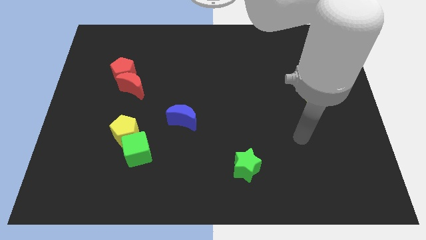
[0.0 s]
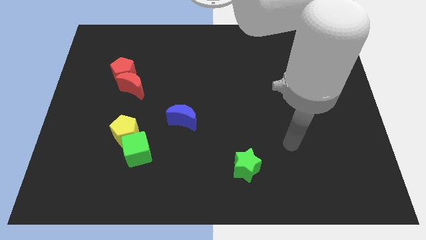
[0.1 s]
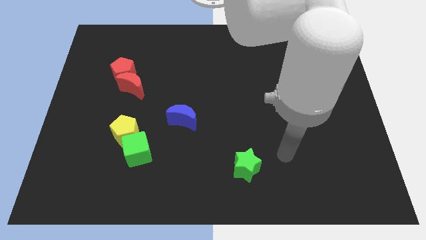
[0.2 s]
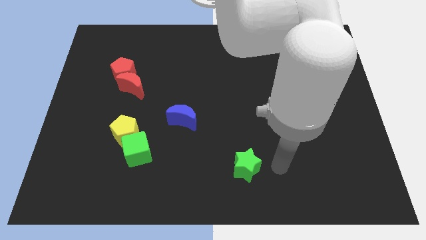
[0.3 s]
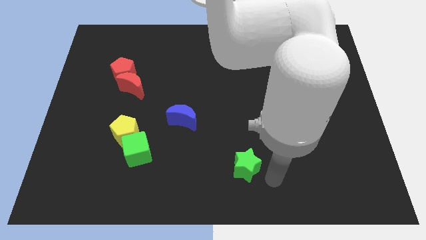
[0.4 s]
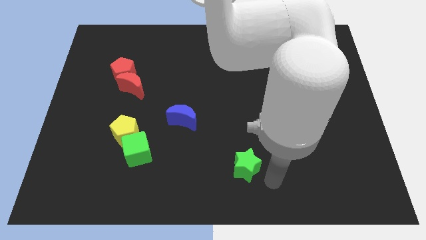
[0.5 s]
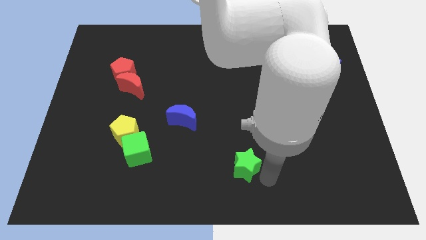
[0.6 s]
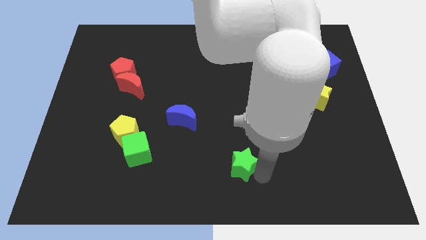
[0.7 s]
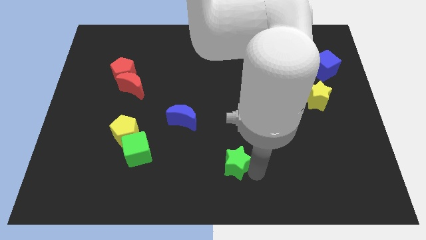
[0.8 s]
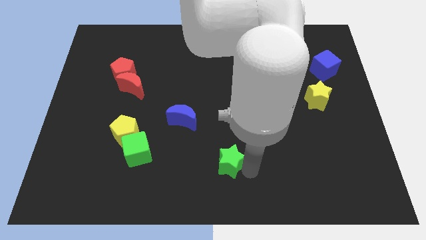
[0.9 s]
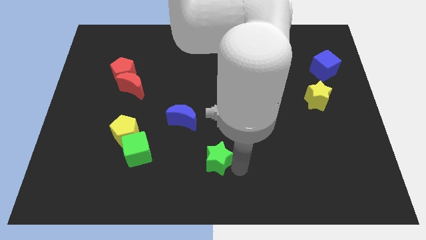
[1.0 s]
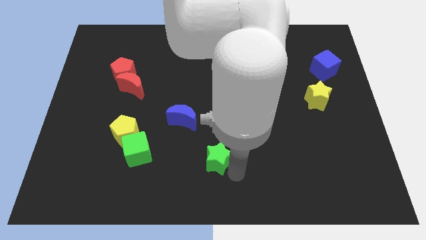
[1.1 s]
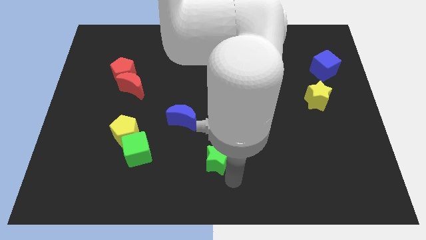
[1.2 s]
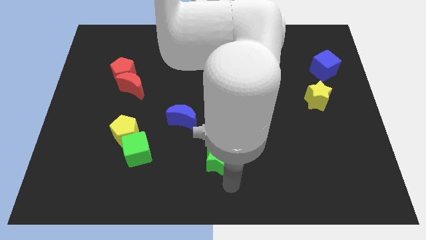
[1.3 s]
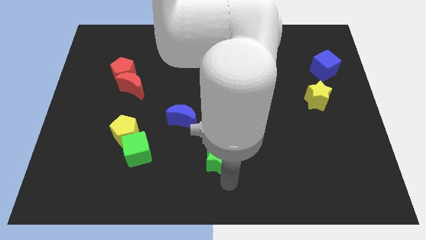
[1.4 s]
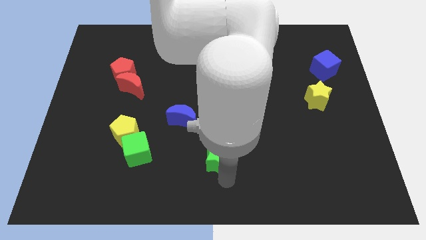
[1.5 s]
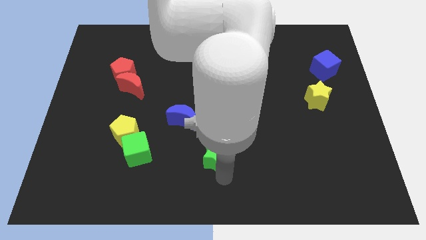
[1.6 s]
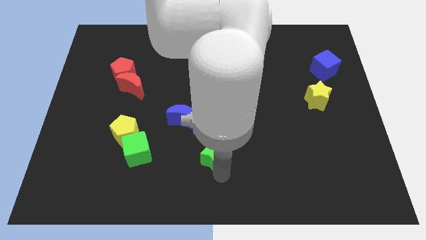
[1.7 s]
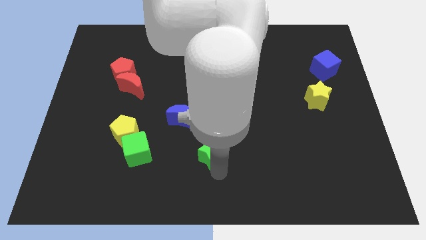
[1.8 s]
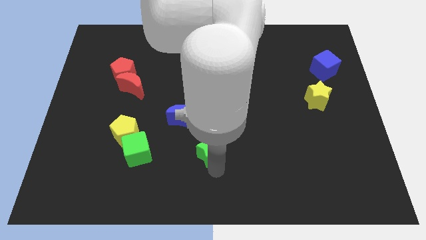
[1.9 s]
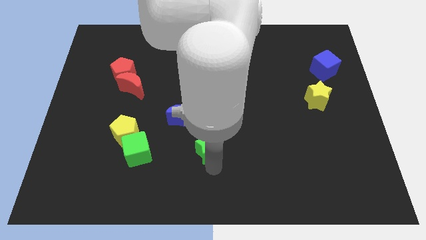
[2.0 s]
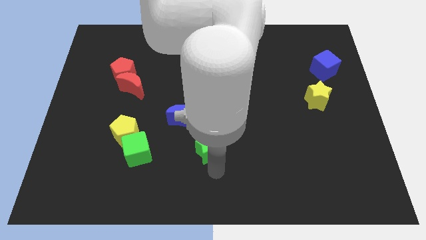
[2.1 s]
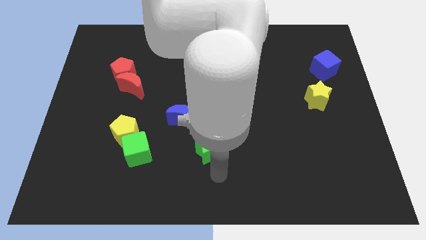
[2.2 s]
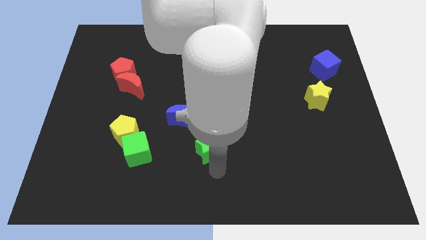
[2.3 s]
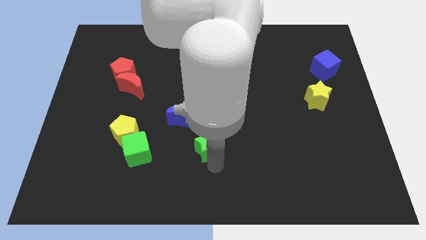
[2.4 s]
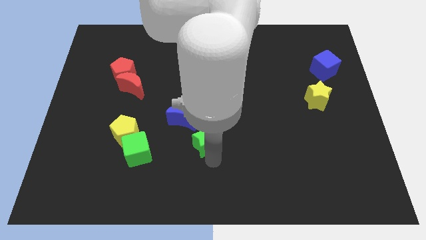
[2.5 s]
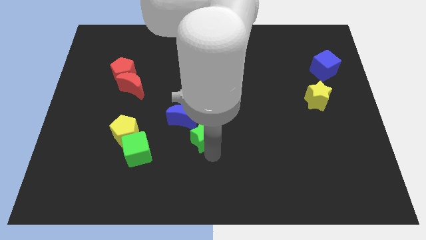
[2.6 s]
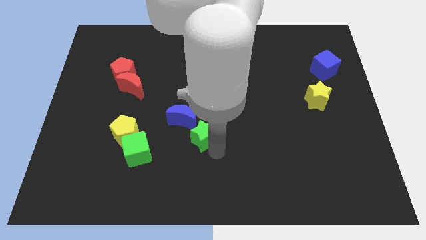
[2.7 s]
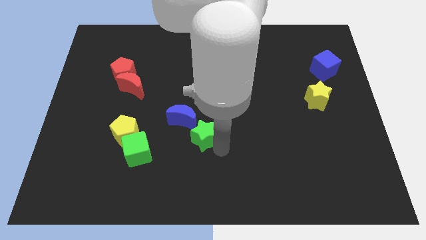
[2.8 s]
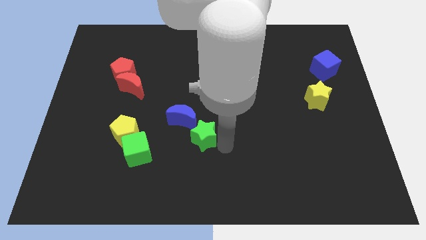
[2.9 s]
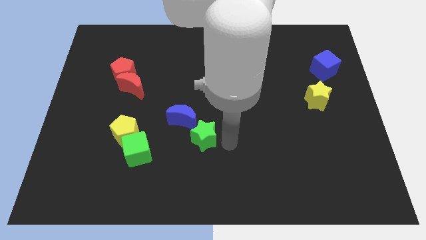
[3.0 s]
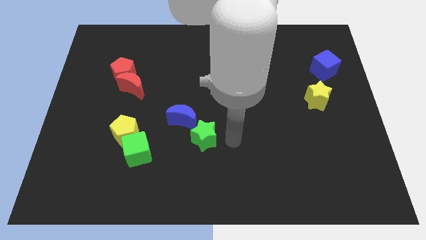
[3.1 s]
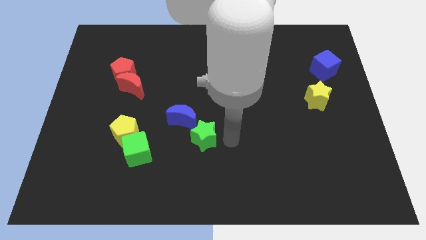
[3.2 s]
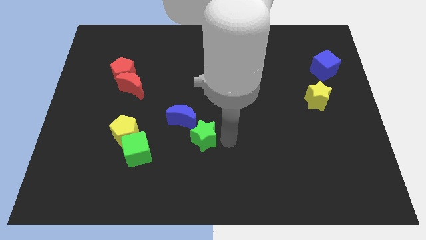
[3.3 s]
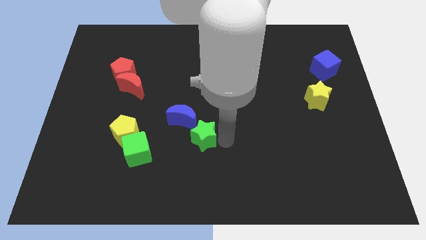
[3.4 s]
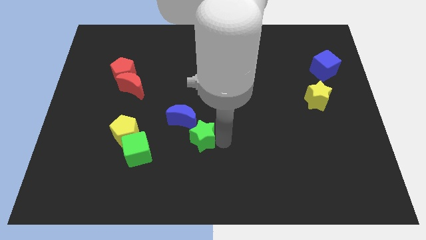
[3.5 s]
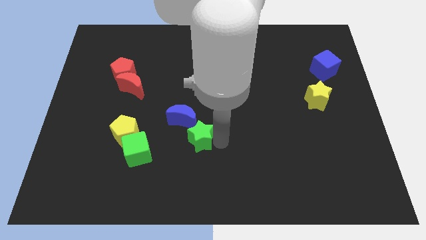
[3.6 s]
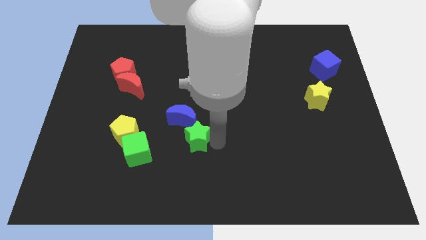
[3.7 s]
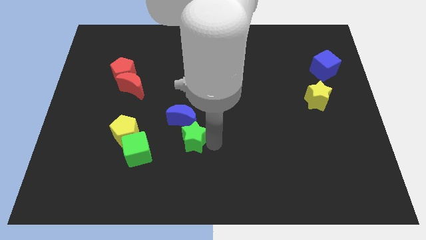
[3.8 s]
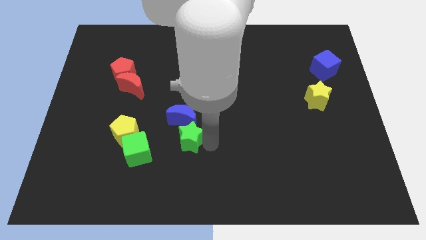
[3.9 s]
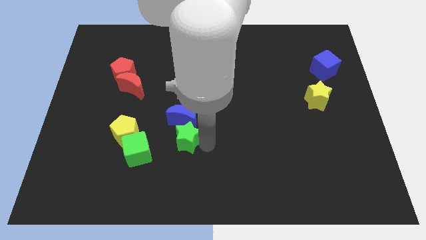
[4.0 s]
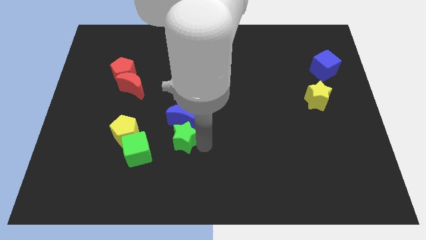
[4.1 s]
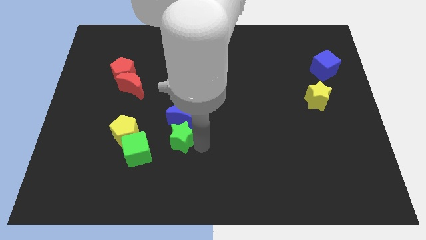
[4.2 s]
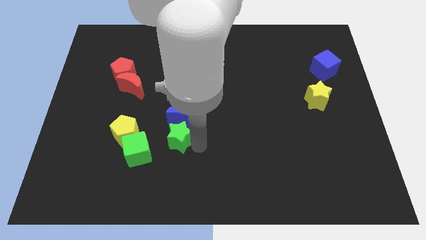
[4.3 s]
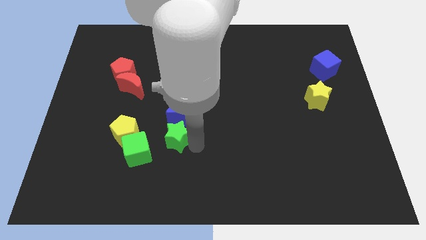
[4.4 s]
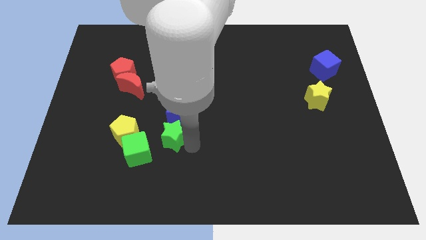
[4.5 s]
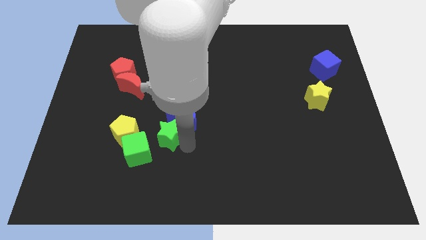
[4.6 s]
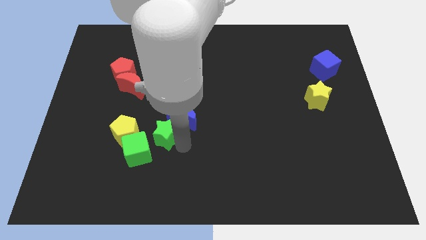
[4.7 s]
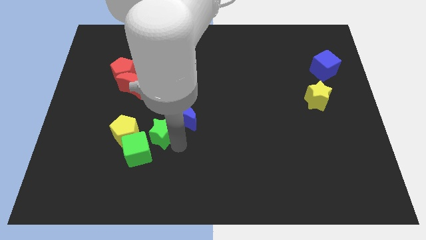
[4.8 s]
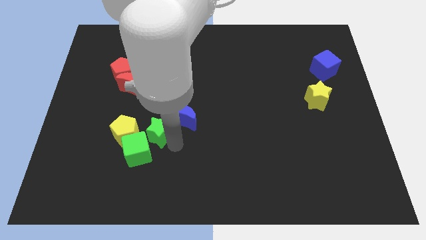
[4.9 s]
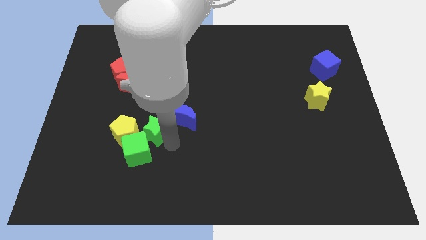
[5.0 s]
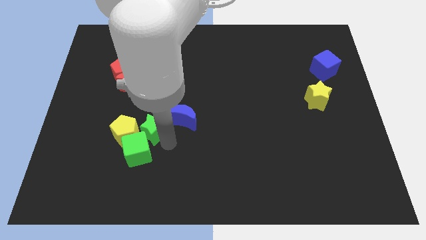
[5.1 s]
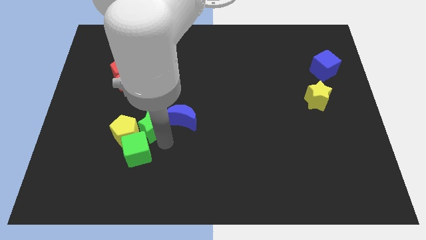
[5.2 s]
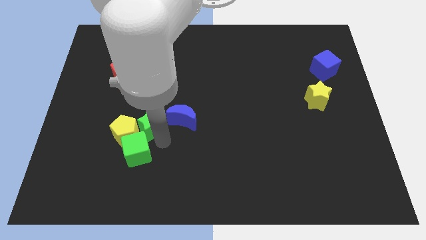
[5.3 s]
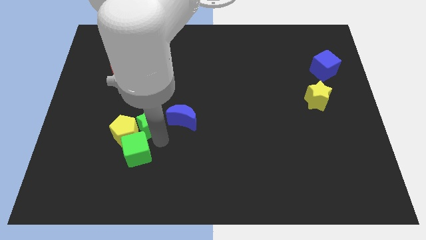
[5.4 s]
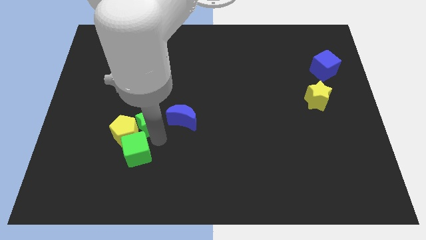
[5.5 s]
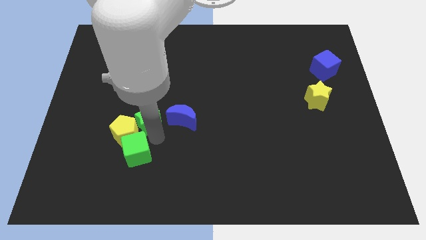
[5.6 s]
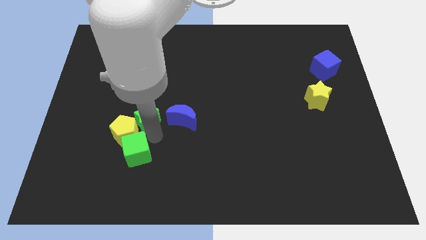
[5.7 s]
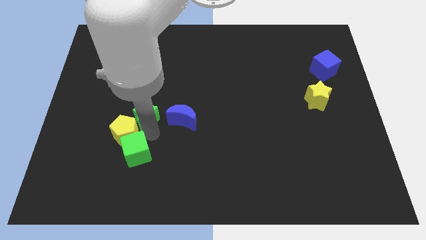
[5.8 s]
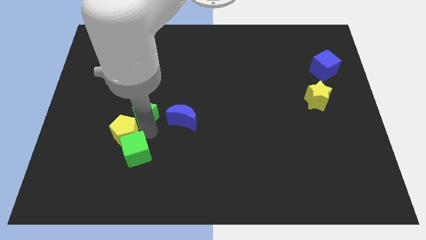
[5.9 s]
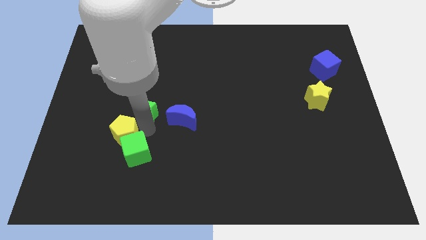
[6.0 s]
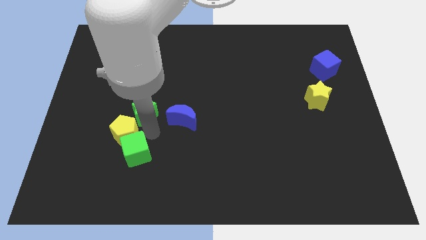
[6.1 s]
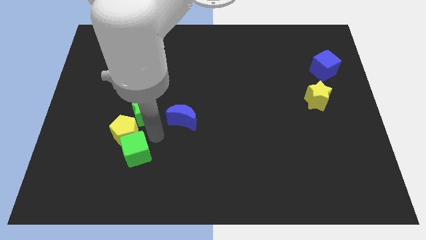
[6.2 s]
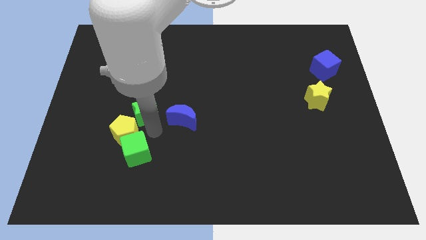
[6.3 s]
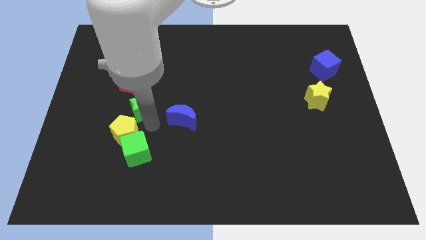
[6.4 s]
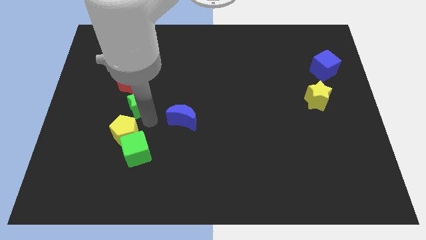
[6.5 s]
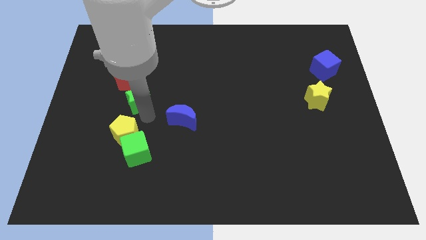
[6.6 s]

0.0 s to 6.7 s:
slide the green star towards the red moon

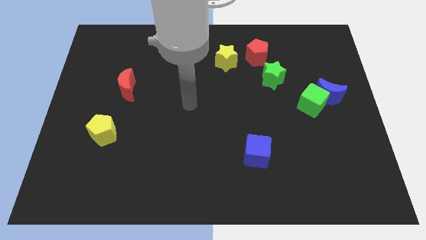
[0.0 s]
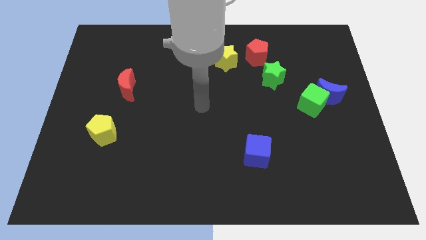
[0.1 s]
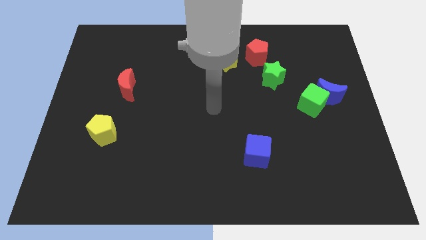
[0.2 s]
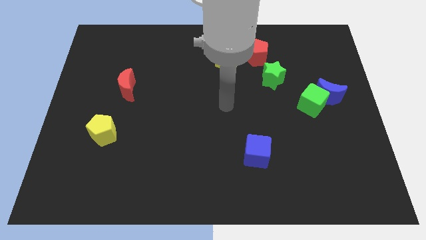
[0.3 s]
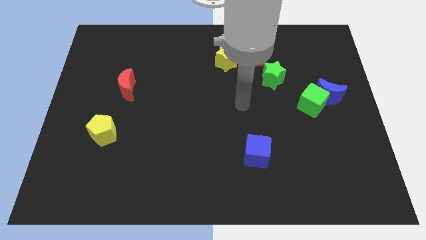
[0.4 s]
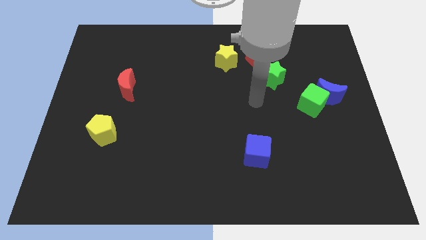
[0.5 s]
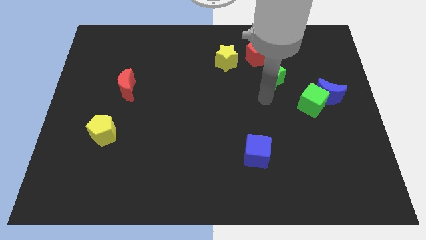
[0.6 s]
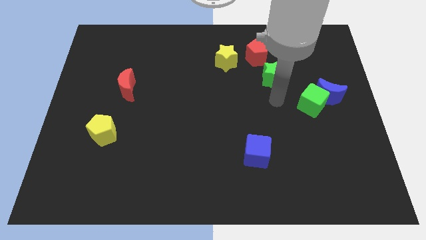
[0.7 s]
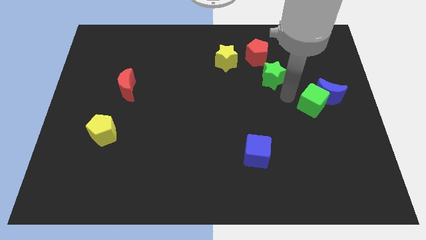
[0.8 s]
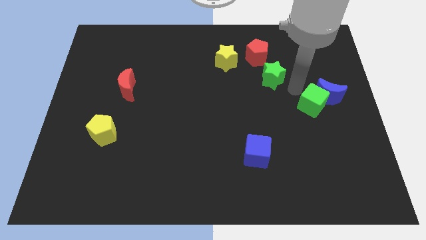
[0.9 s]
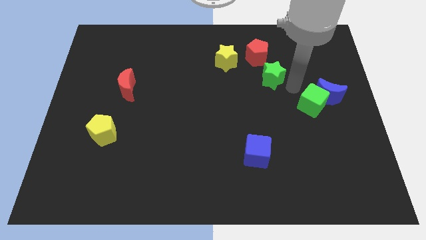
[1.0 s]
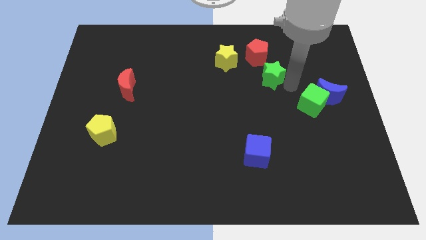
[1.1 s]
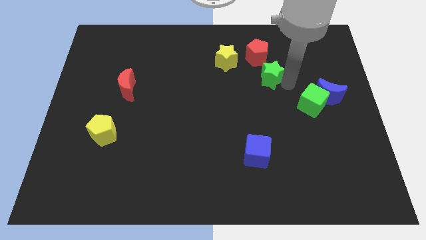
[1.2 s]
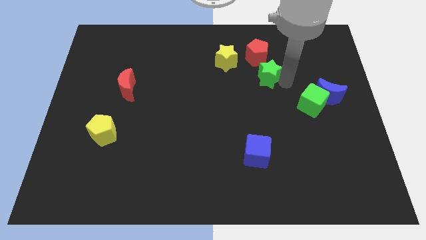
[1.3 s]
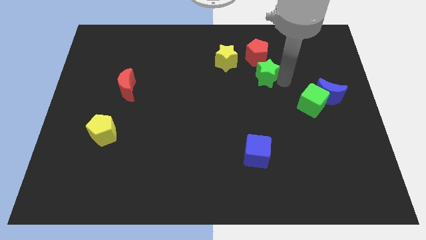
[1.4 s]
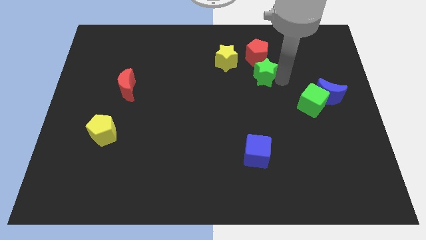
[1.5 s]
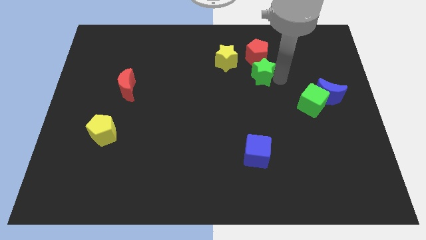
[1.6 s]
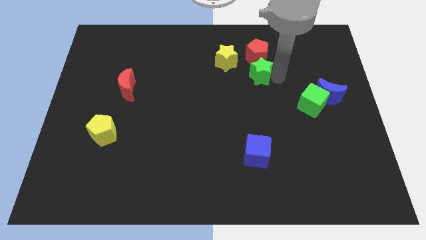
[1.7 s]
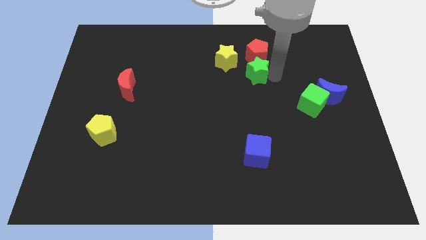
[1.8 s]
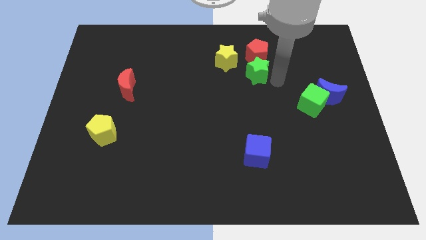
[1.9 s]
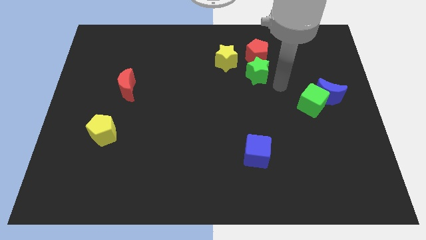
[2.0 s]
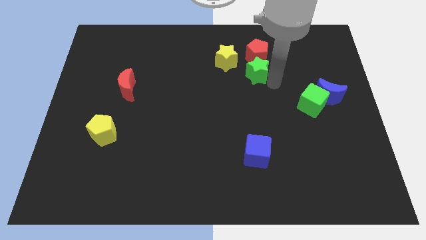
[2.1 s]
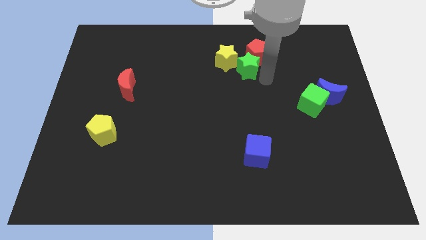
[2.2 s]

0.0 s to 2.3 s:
move the green star close to the yellow star
